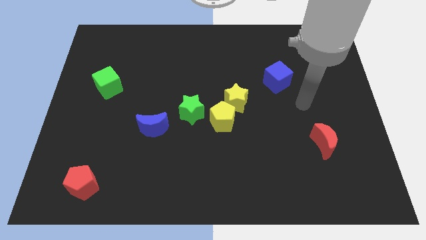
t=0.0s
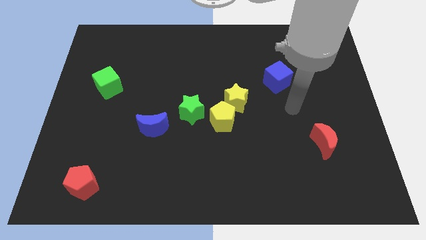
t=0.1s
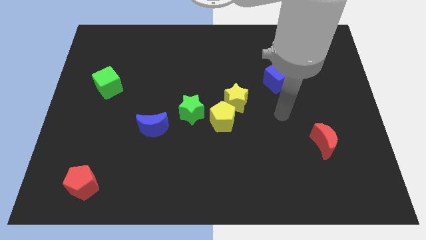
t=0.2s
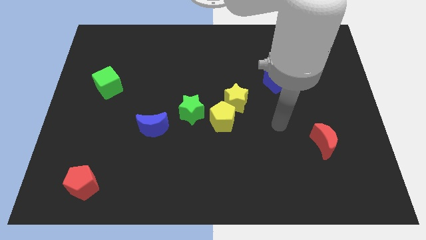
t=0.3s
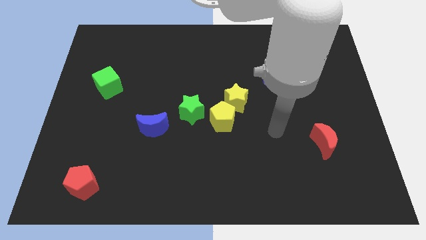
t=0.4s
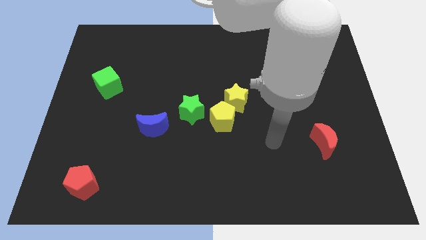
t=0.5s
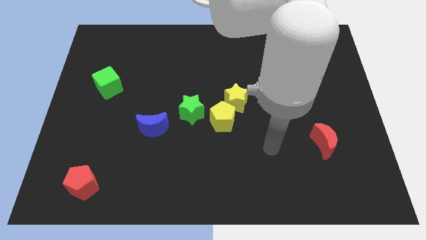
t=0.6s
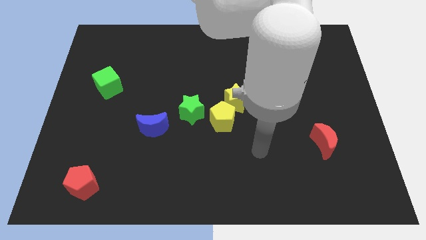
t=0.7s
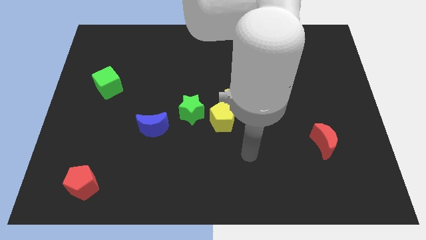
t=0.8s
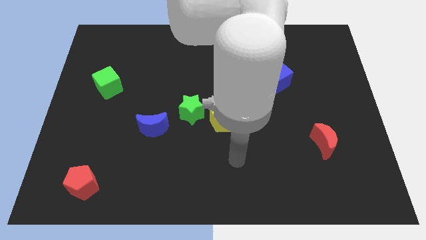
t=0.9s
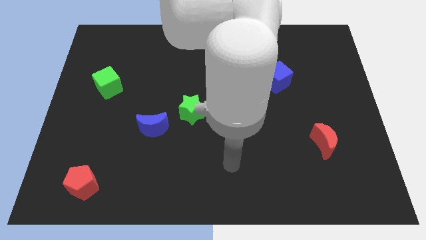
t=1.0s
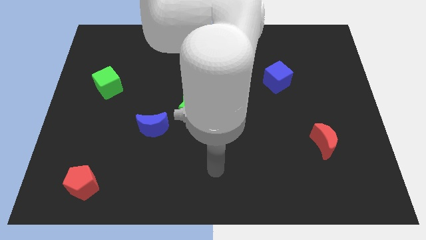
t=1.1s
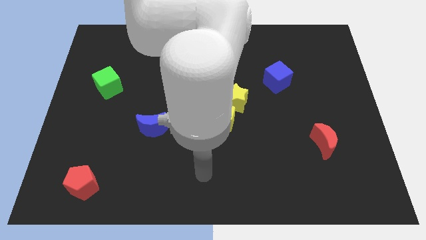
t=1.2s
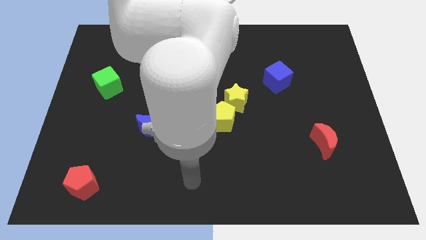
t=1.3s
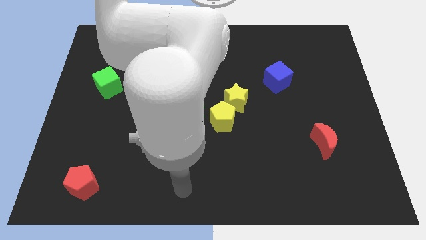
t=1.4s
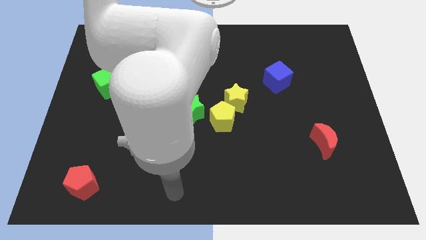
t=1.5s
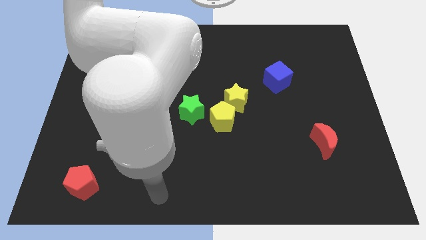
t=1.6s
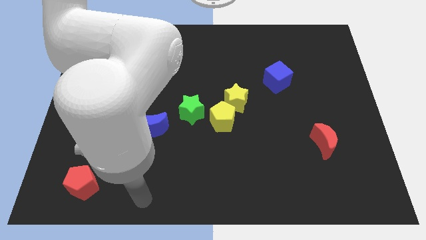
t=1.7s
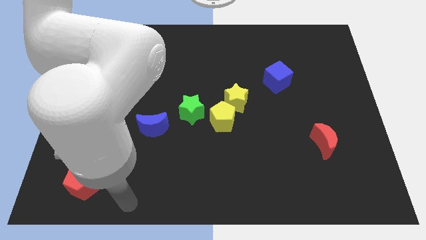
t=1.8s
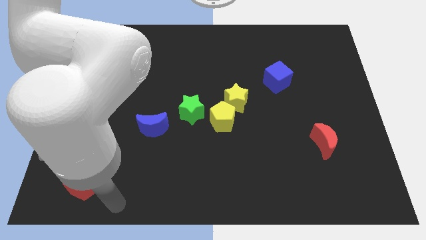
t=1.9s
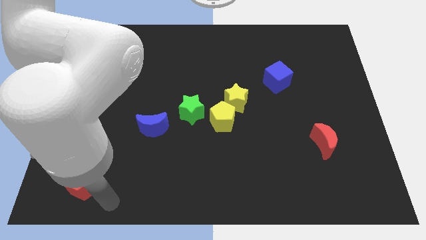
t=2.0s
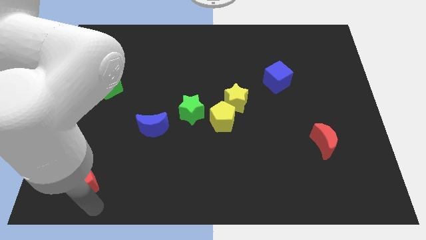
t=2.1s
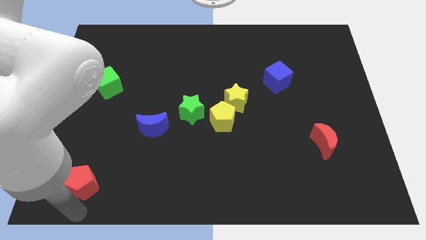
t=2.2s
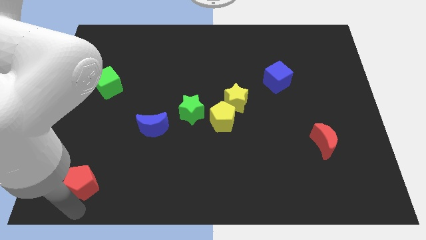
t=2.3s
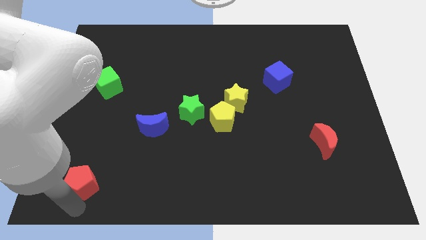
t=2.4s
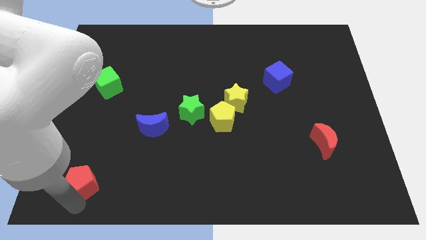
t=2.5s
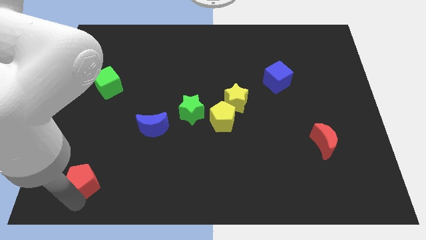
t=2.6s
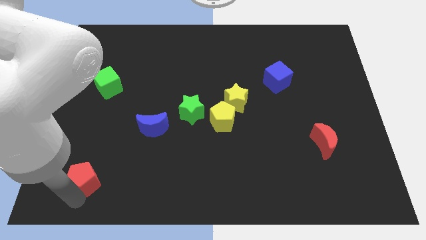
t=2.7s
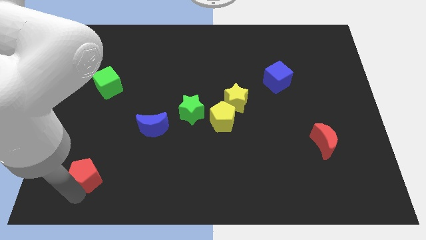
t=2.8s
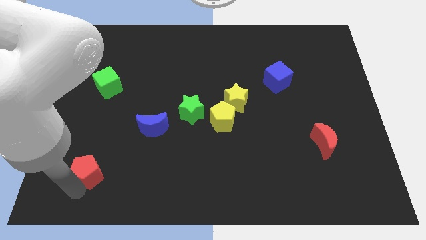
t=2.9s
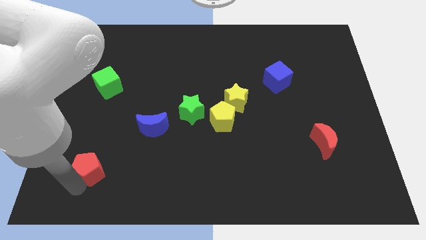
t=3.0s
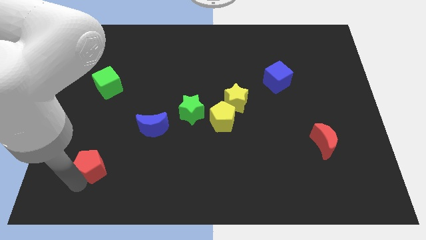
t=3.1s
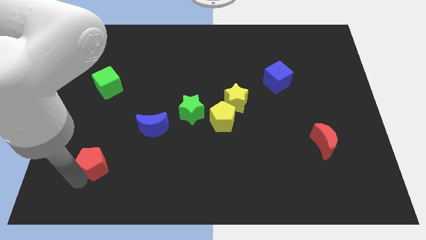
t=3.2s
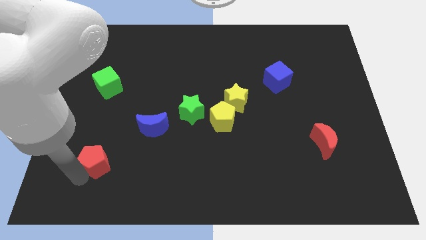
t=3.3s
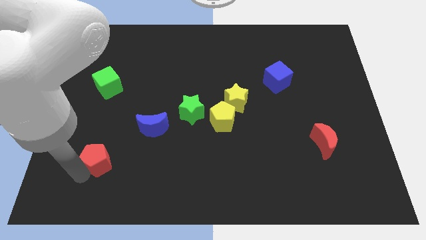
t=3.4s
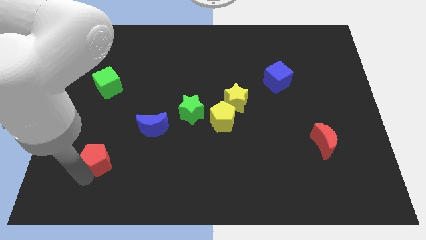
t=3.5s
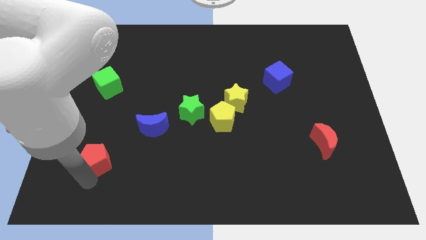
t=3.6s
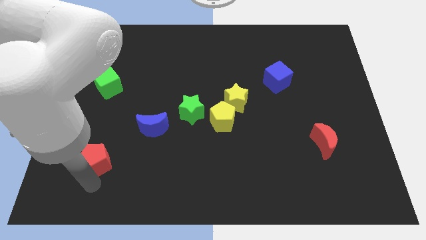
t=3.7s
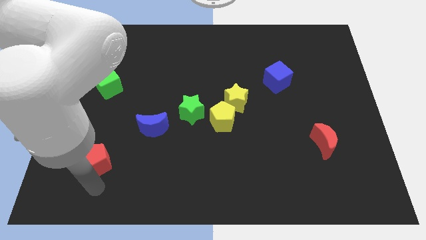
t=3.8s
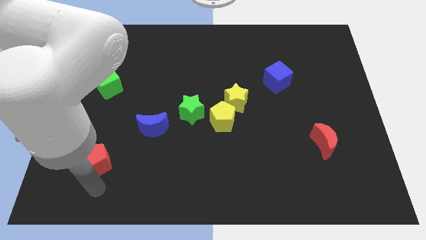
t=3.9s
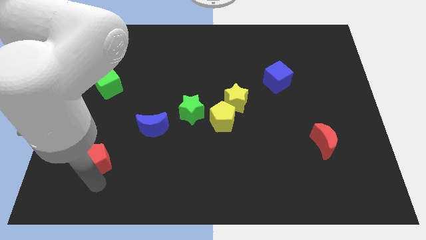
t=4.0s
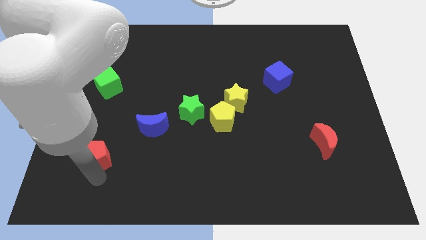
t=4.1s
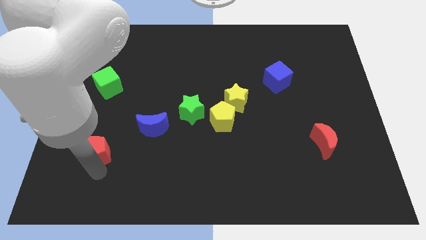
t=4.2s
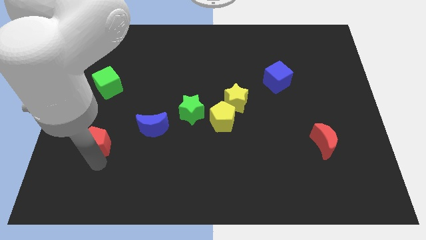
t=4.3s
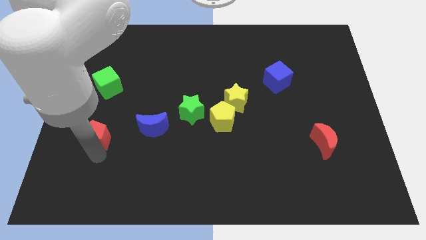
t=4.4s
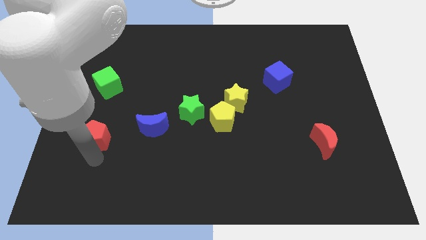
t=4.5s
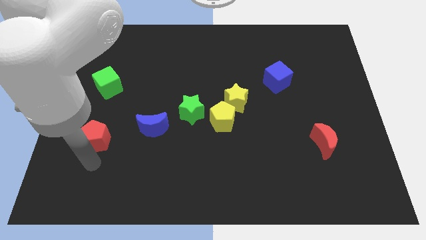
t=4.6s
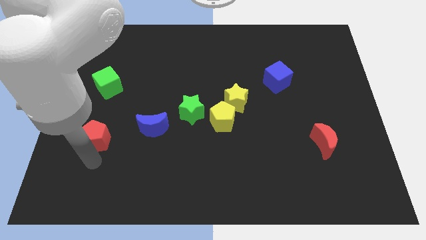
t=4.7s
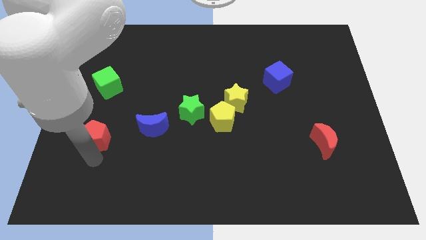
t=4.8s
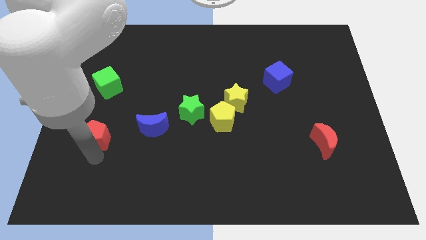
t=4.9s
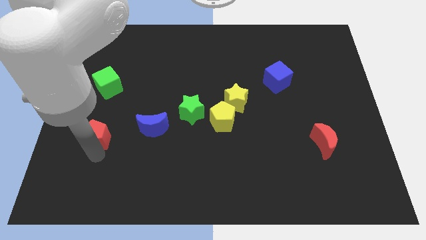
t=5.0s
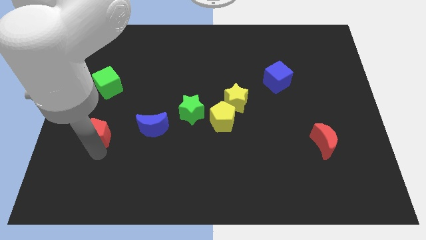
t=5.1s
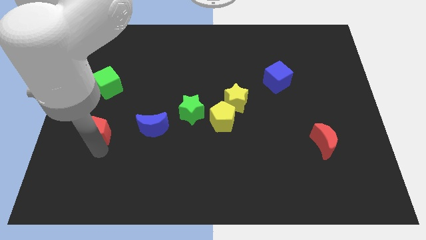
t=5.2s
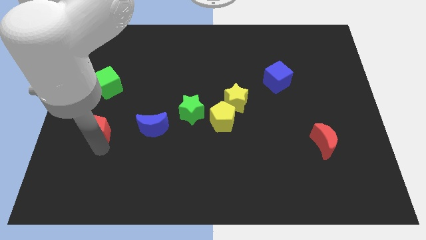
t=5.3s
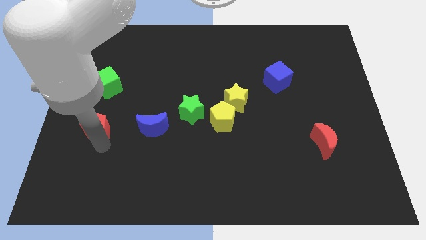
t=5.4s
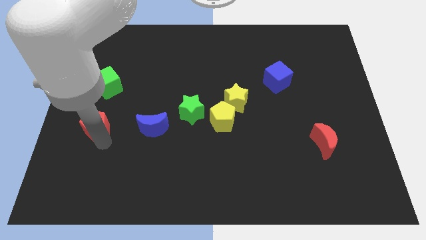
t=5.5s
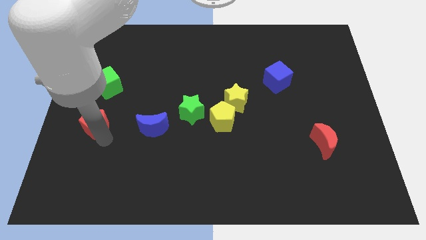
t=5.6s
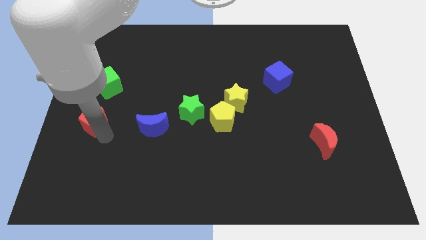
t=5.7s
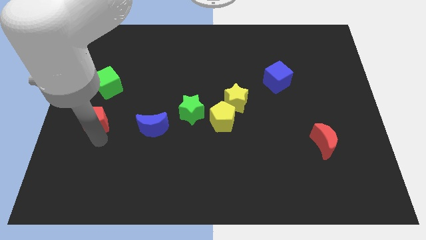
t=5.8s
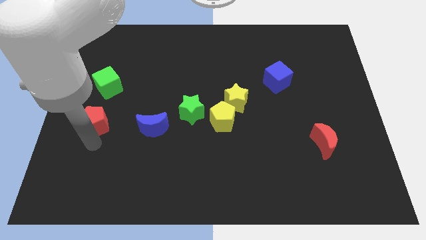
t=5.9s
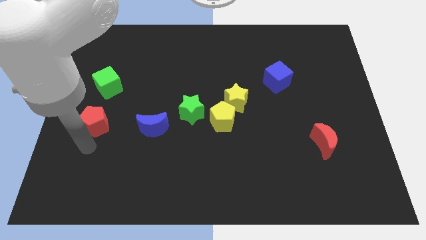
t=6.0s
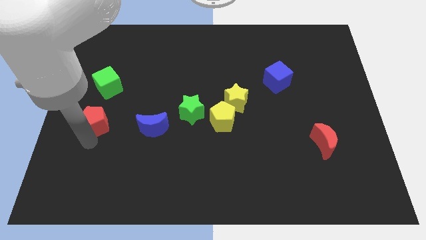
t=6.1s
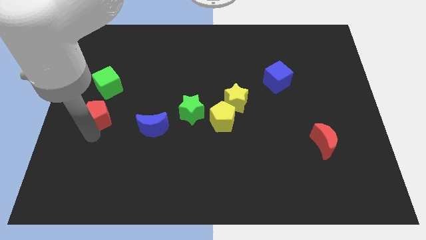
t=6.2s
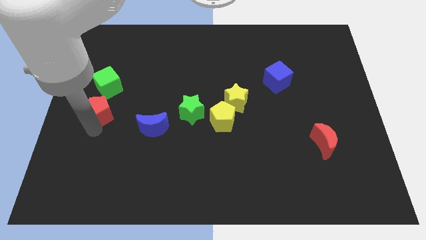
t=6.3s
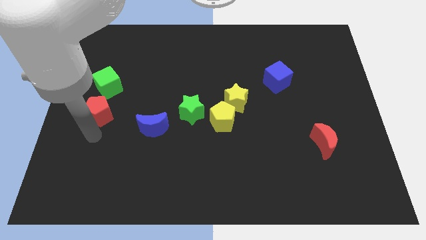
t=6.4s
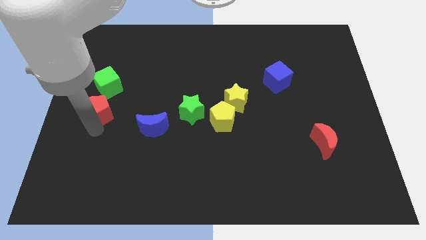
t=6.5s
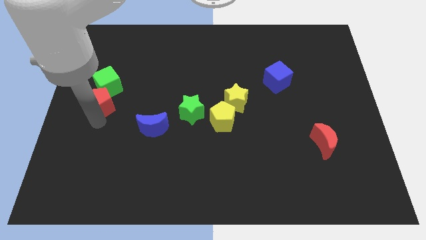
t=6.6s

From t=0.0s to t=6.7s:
move the red pentagon close to the green cube

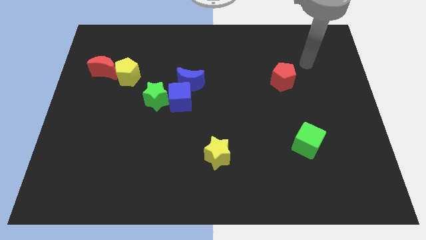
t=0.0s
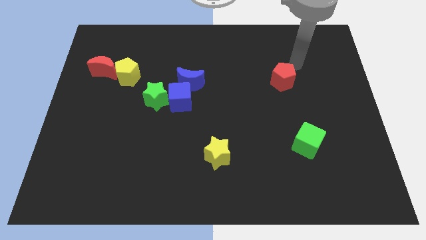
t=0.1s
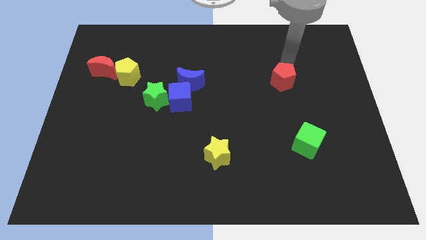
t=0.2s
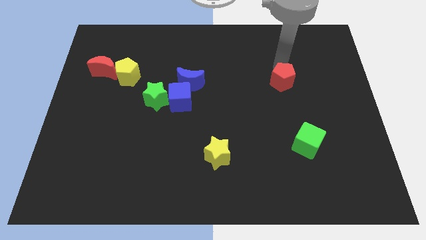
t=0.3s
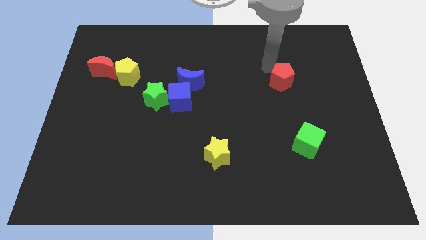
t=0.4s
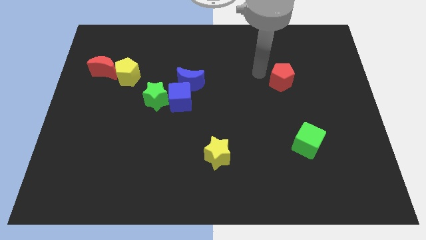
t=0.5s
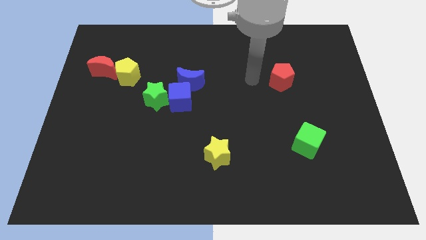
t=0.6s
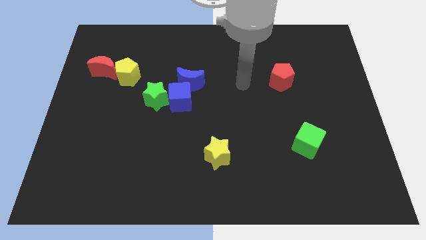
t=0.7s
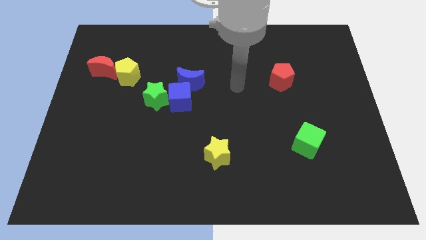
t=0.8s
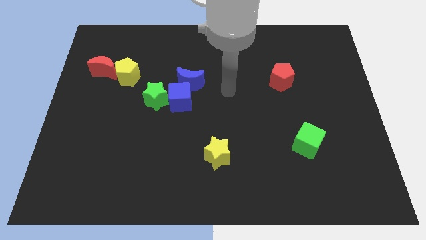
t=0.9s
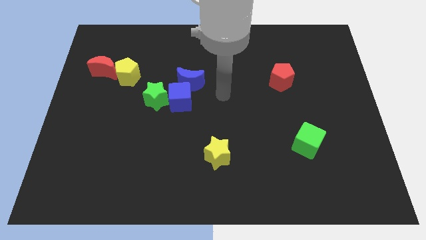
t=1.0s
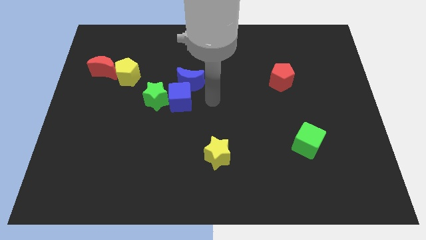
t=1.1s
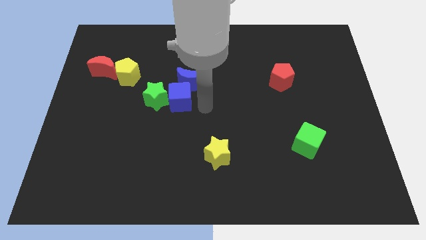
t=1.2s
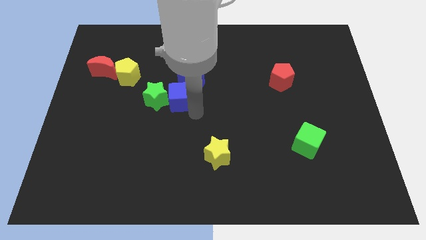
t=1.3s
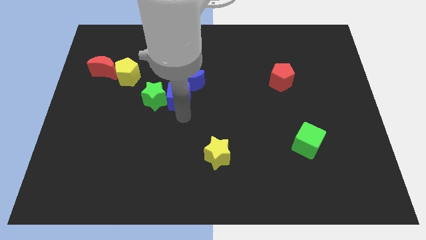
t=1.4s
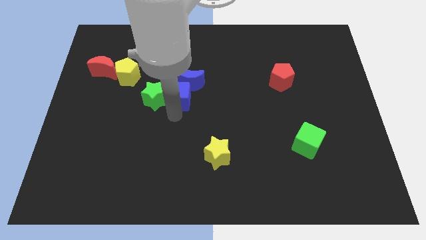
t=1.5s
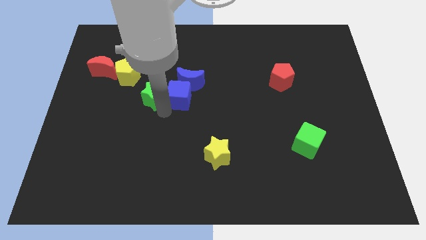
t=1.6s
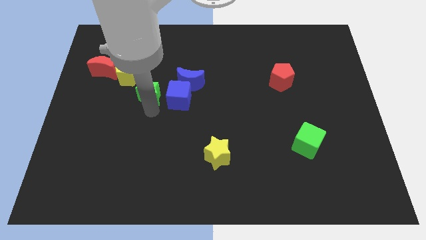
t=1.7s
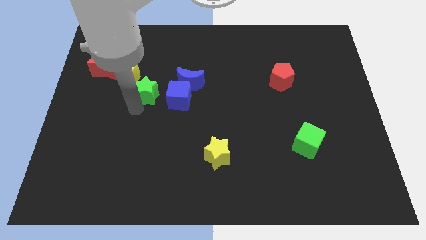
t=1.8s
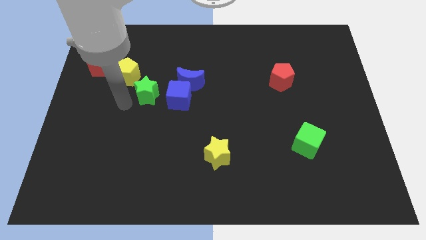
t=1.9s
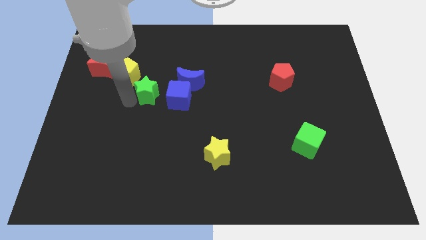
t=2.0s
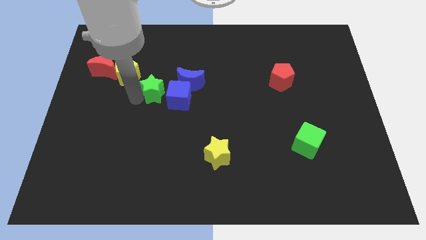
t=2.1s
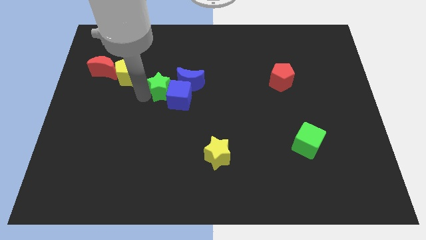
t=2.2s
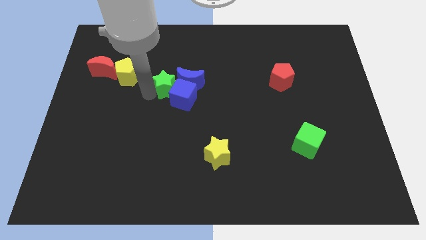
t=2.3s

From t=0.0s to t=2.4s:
move the green star next to the blue moon
